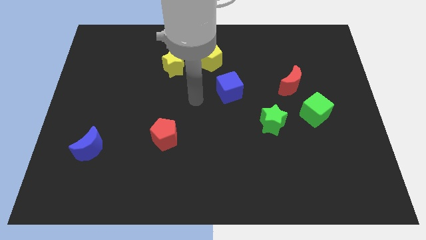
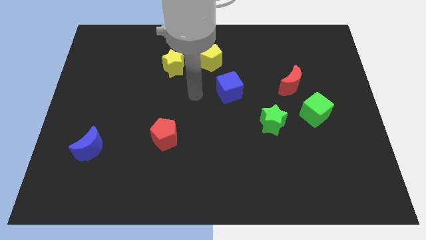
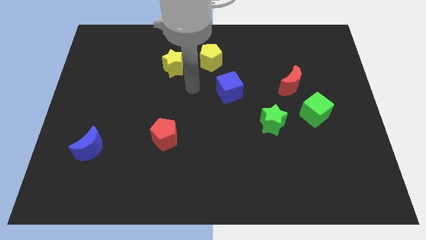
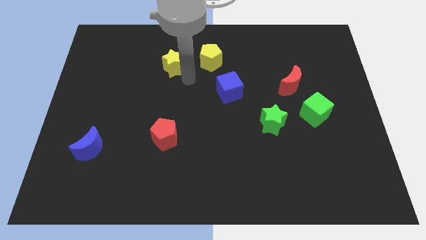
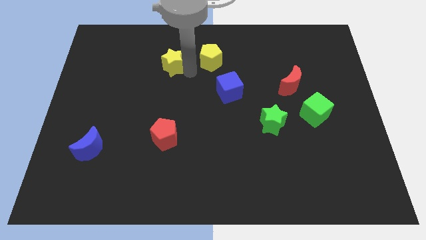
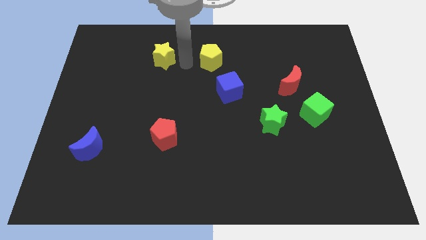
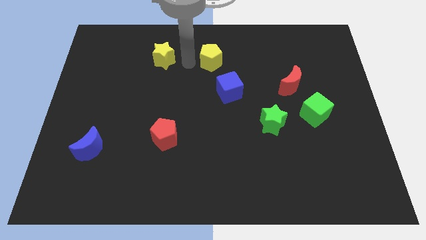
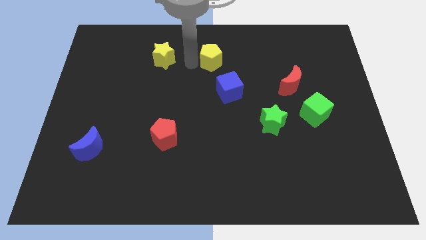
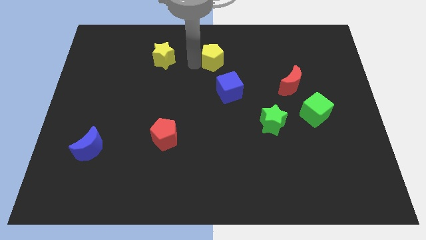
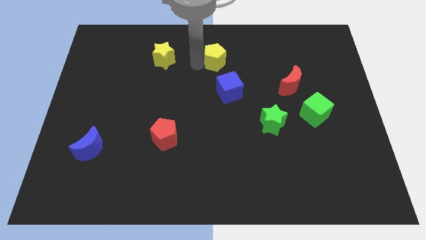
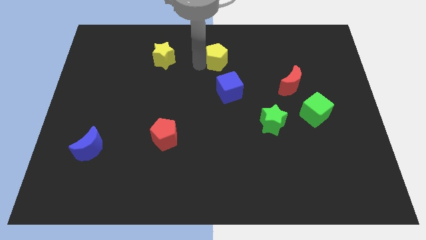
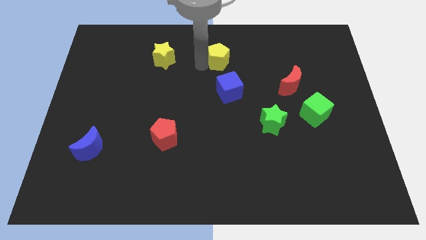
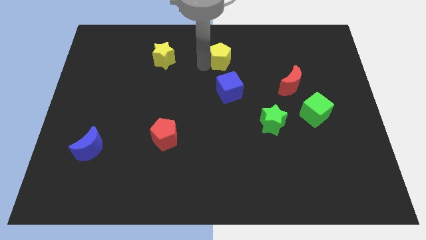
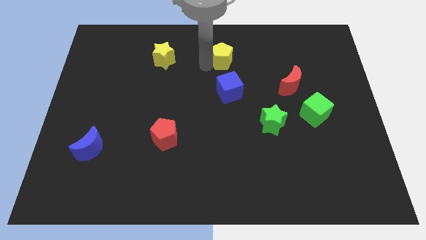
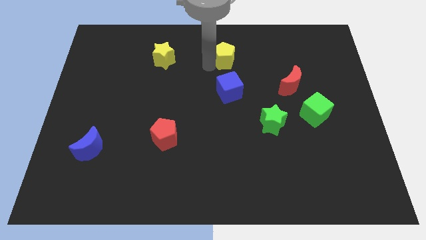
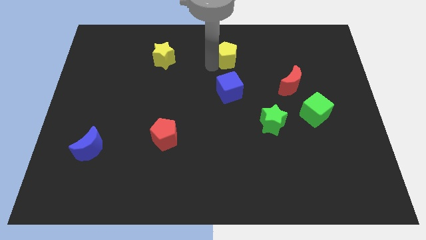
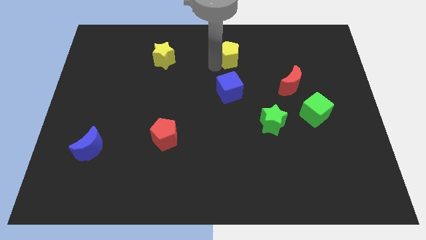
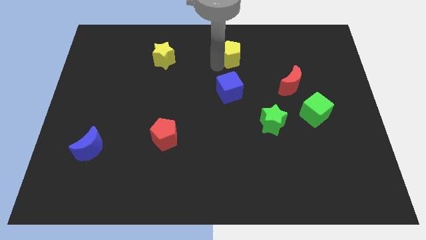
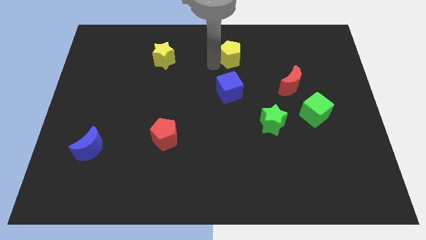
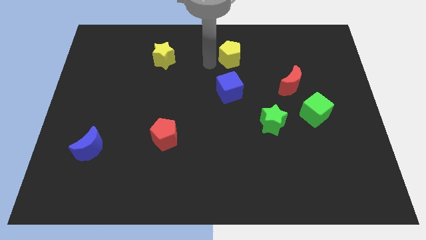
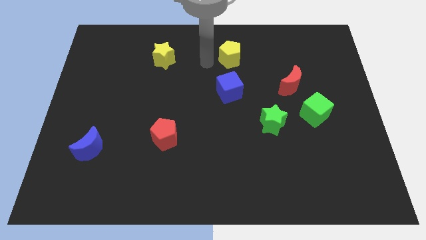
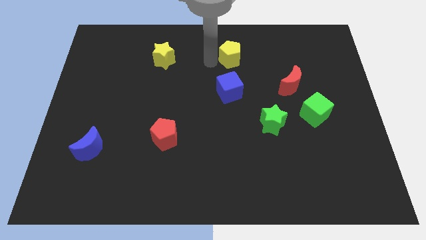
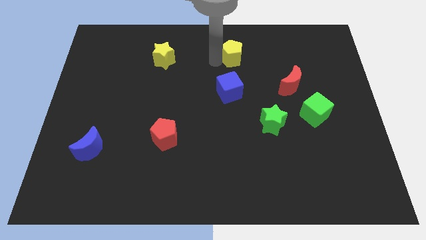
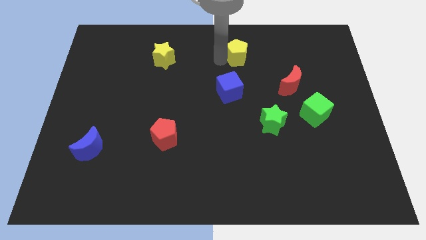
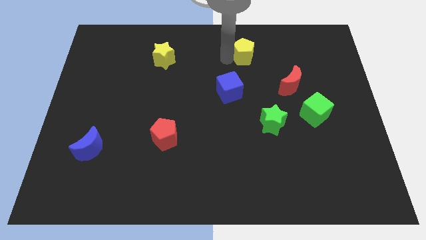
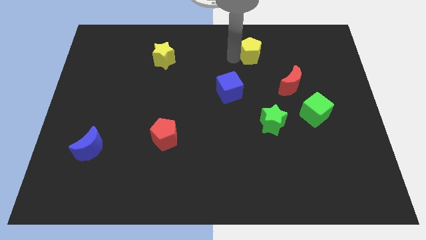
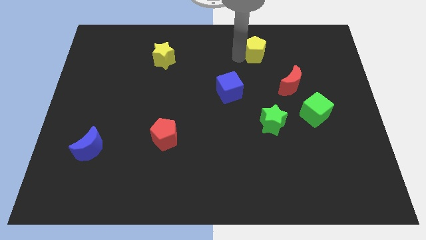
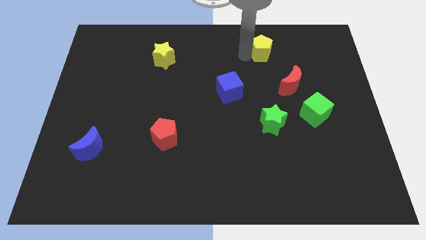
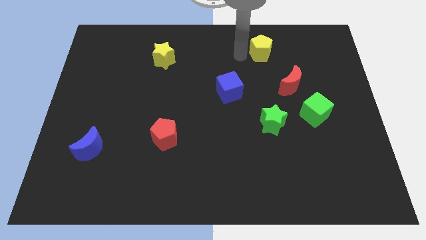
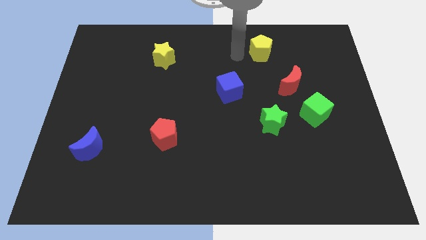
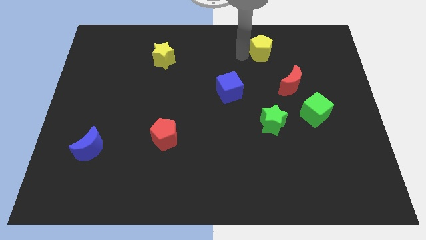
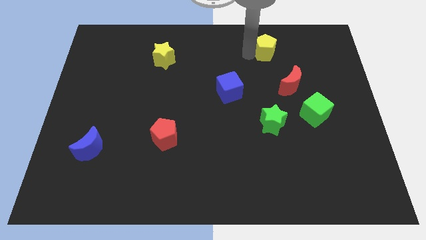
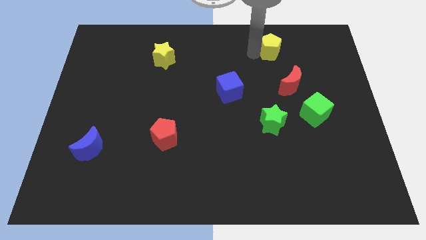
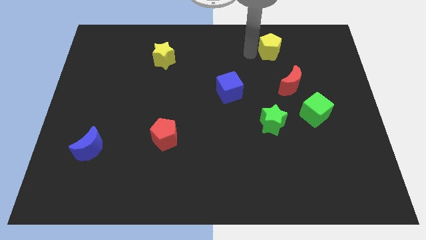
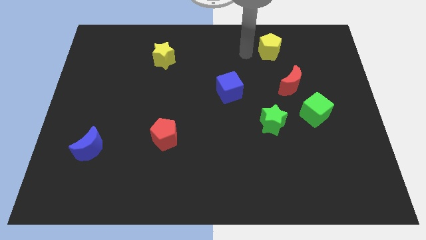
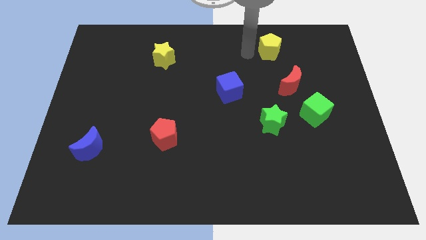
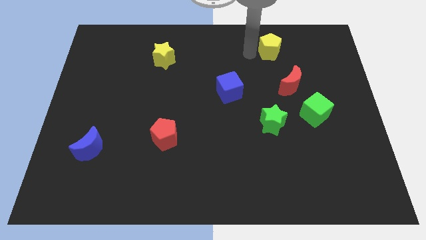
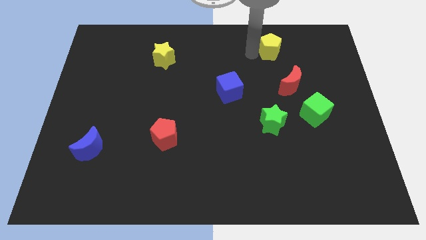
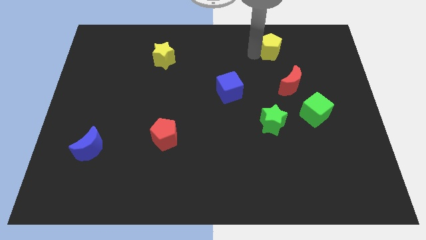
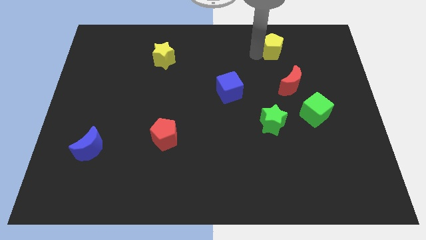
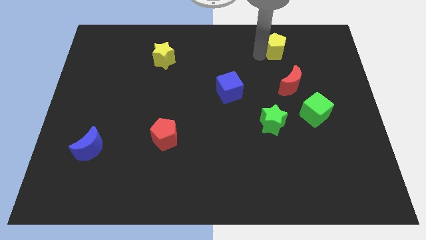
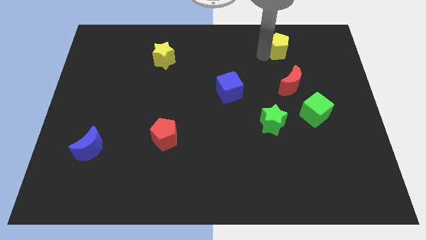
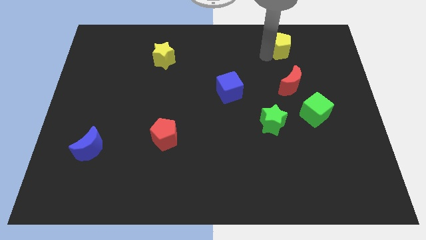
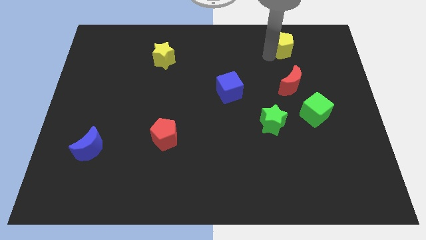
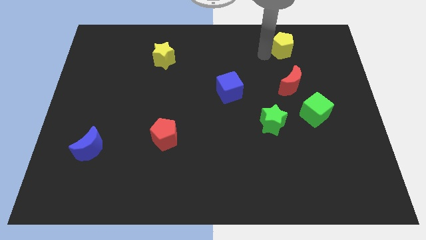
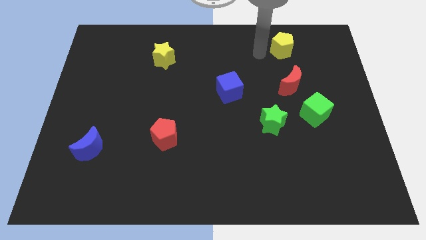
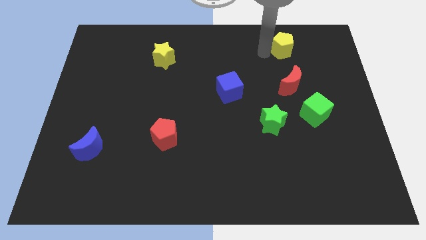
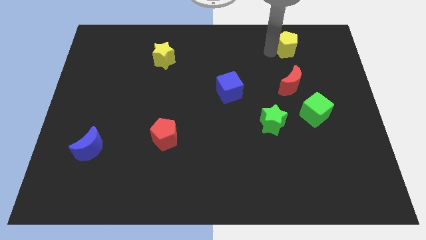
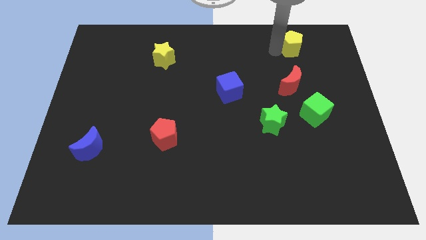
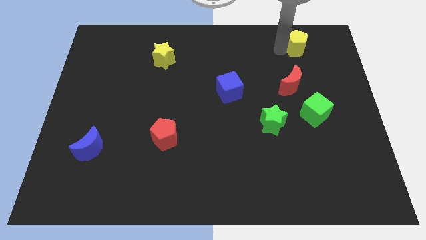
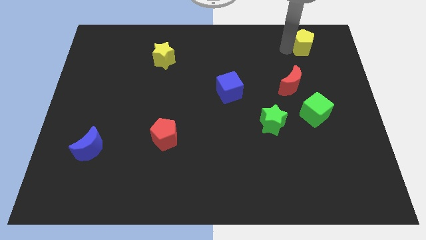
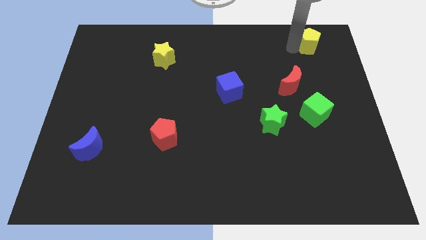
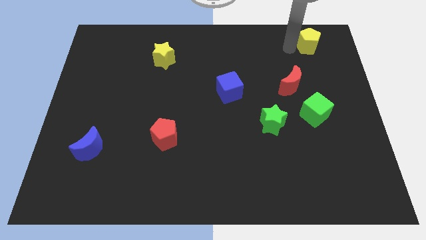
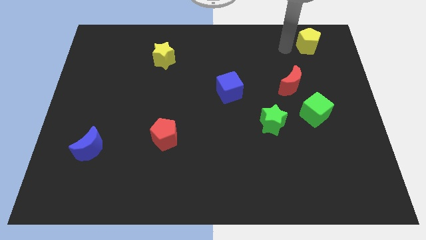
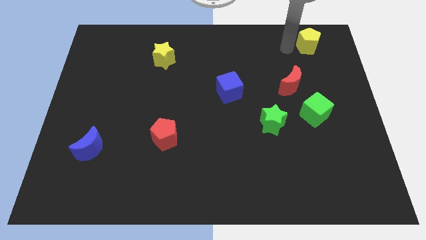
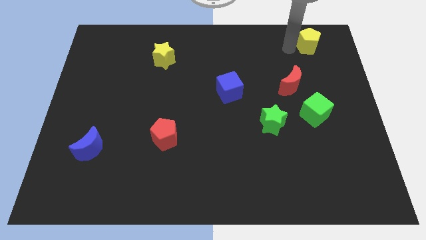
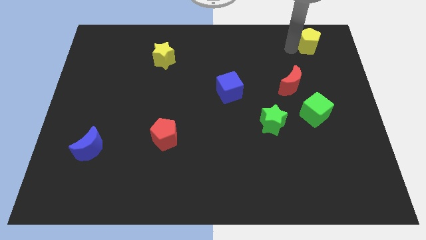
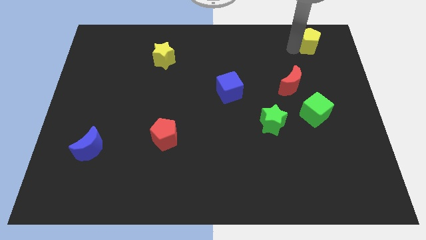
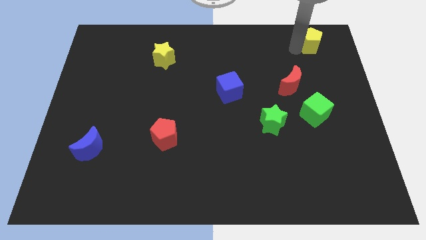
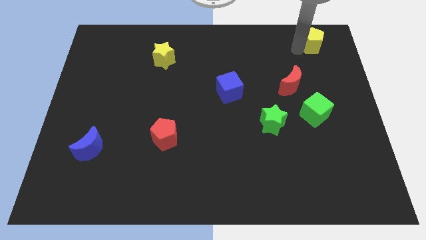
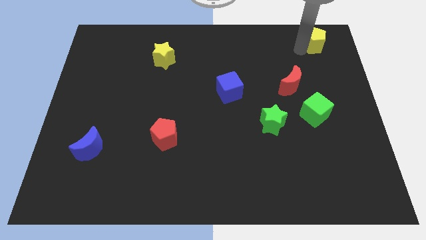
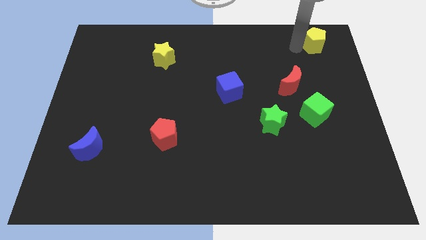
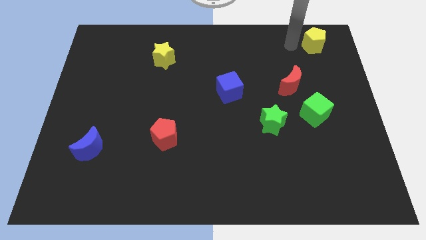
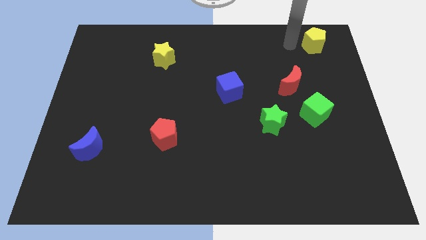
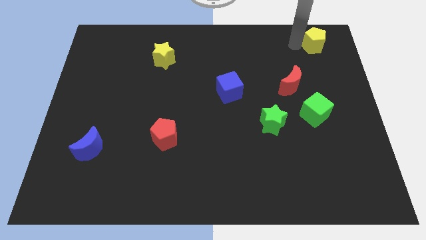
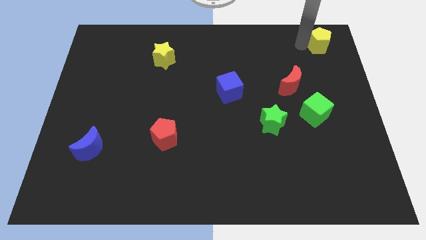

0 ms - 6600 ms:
put the yellow pentagon to the top right of the board
